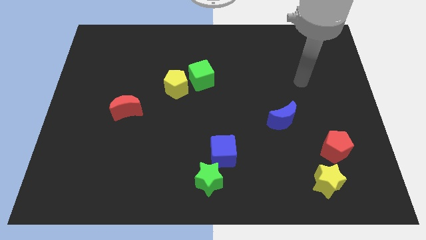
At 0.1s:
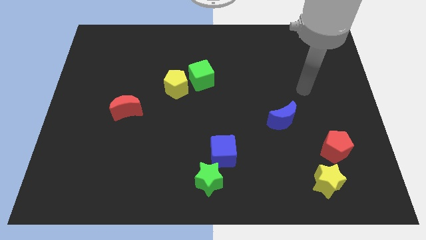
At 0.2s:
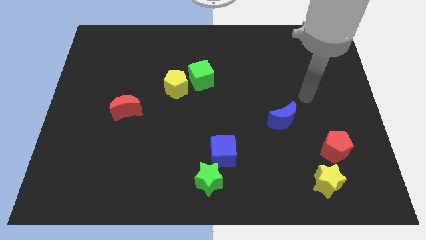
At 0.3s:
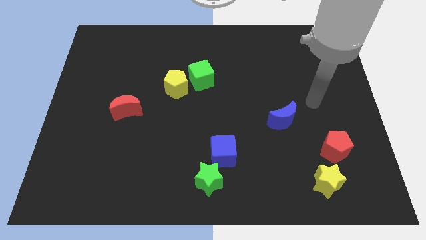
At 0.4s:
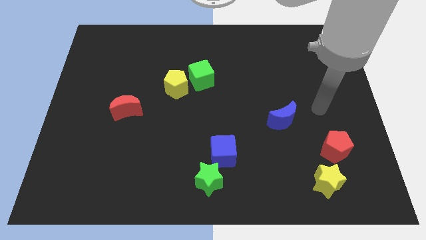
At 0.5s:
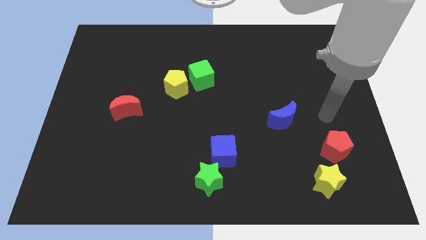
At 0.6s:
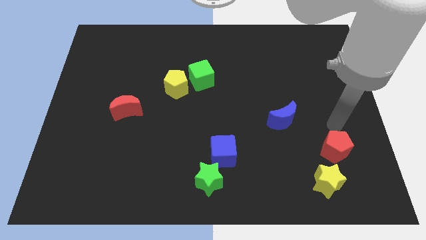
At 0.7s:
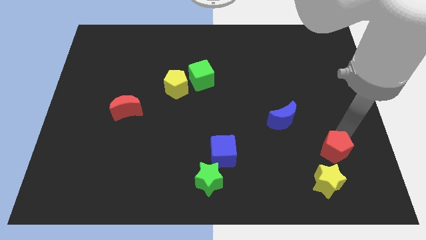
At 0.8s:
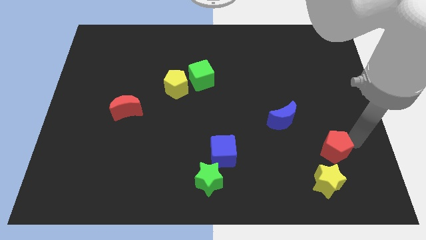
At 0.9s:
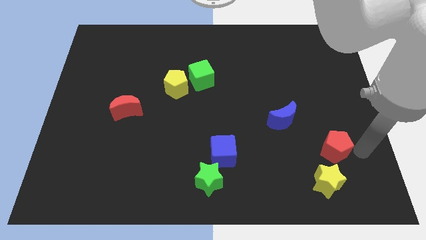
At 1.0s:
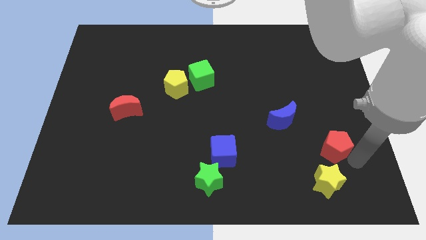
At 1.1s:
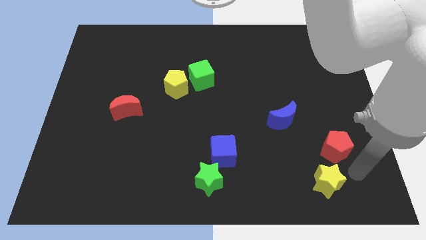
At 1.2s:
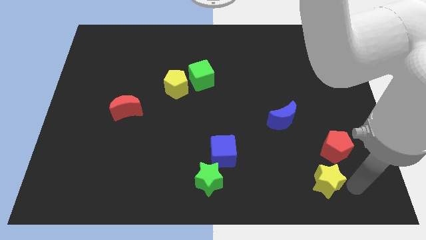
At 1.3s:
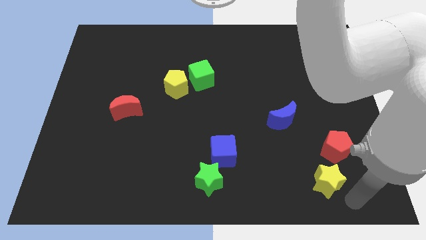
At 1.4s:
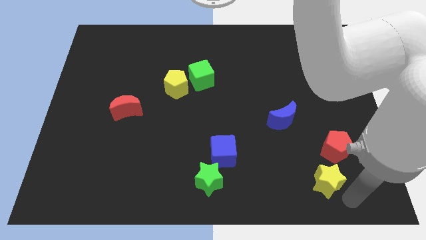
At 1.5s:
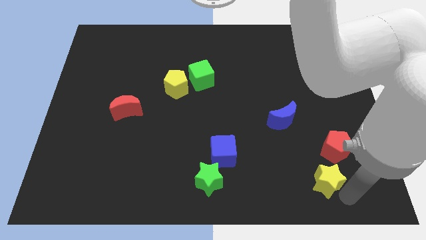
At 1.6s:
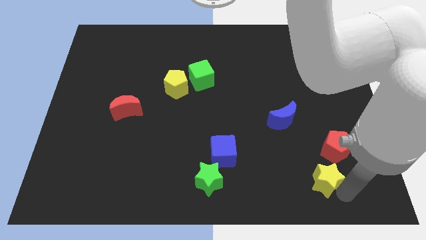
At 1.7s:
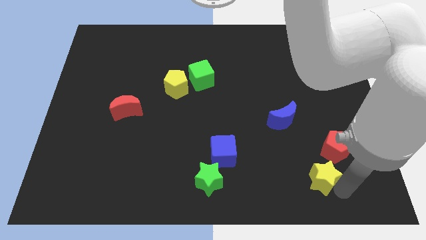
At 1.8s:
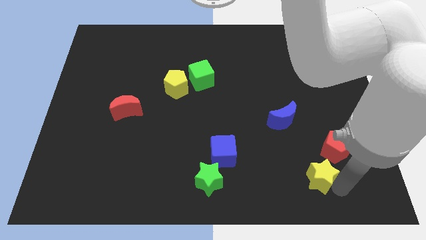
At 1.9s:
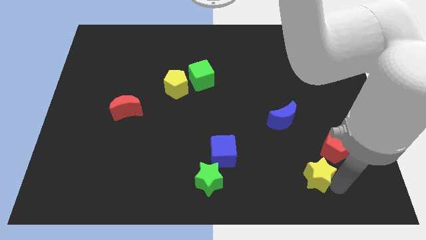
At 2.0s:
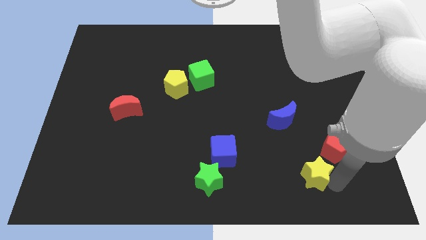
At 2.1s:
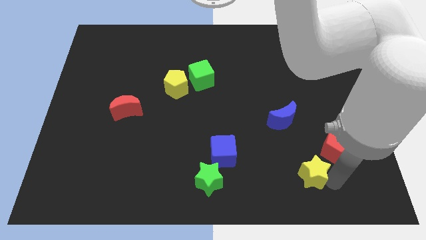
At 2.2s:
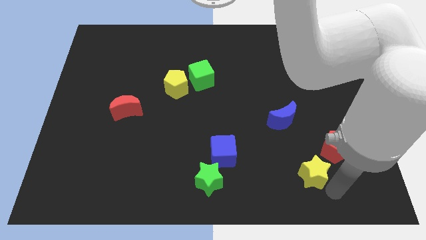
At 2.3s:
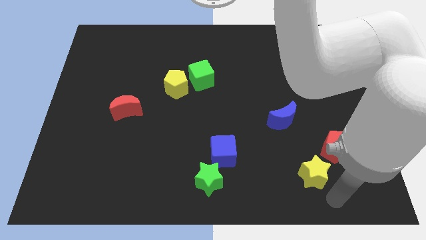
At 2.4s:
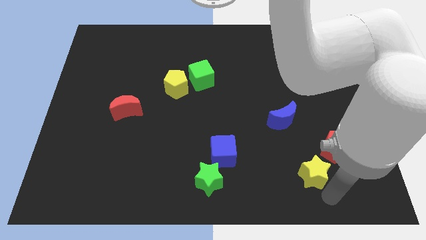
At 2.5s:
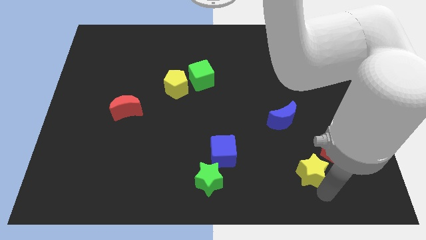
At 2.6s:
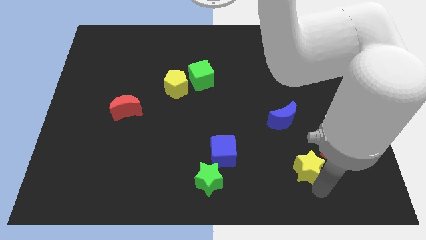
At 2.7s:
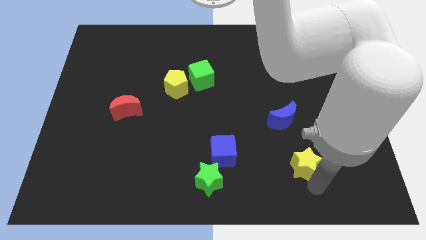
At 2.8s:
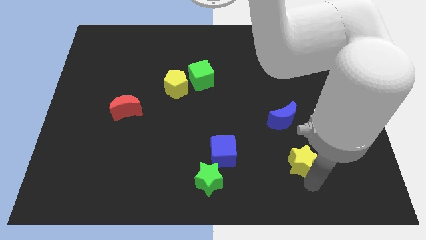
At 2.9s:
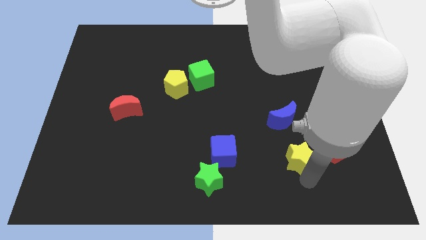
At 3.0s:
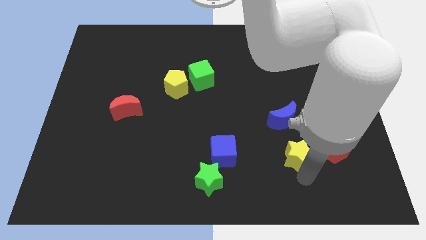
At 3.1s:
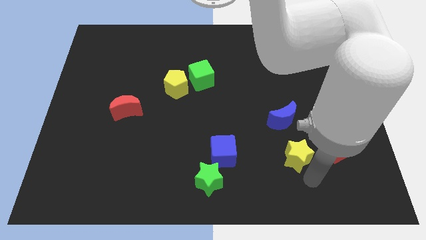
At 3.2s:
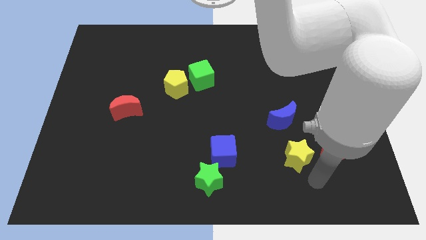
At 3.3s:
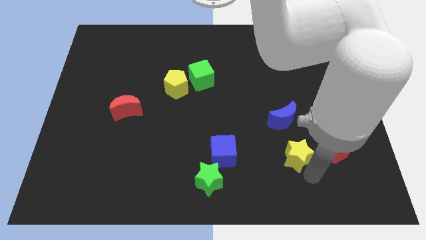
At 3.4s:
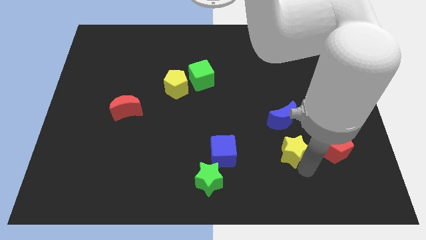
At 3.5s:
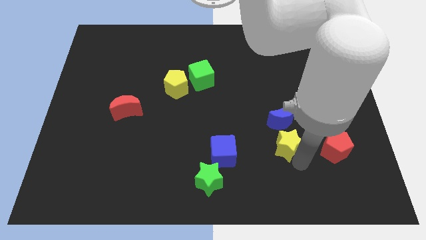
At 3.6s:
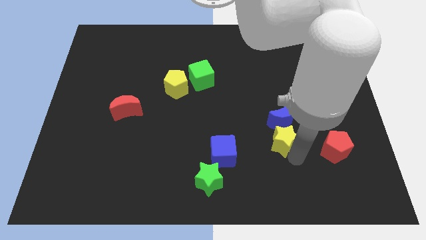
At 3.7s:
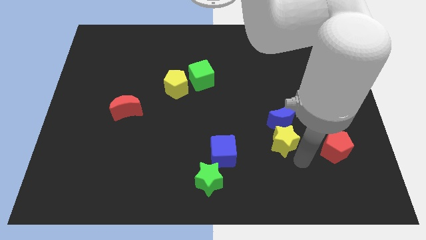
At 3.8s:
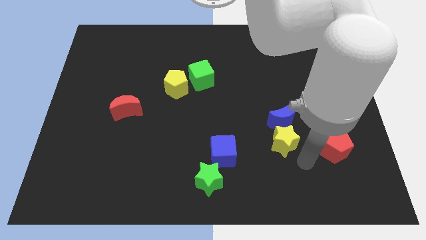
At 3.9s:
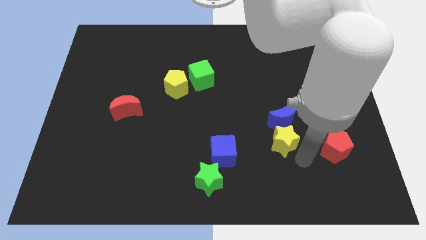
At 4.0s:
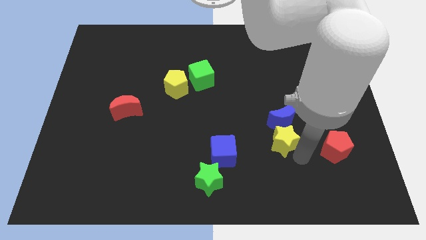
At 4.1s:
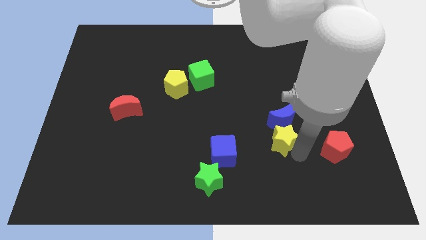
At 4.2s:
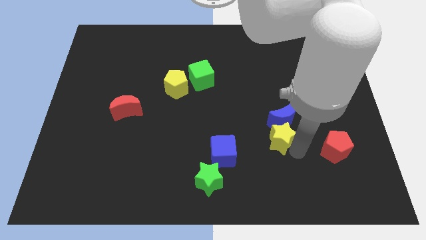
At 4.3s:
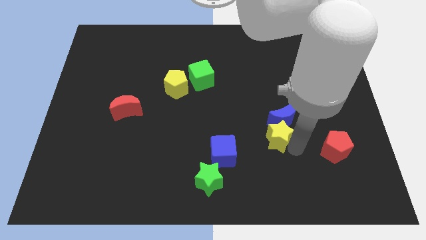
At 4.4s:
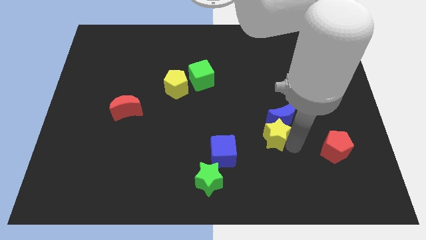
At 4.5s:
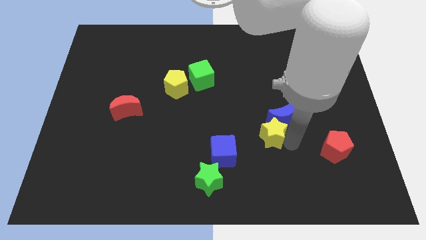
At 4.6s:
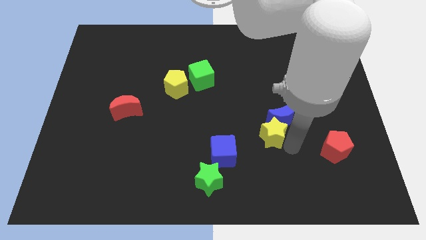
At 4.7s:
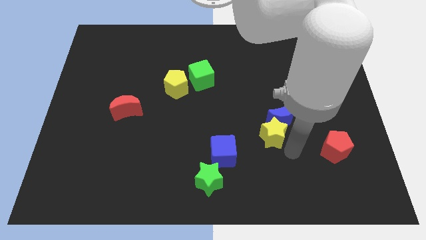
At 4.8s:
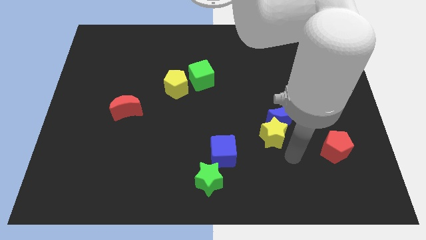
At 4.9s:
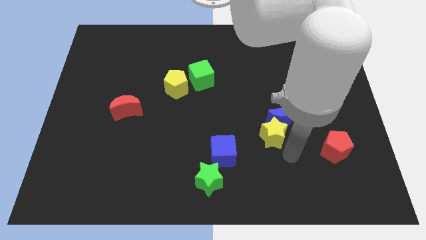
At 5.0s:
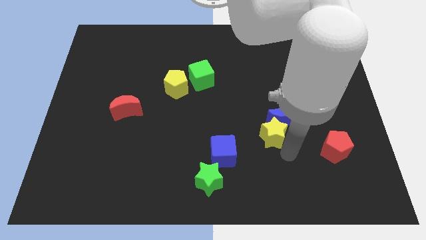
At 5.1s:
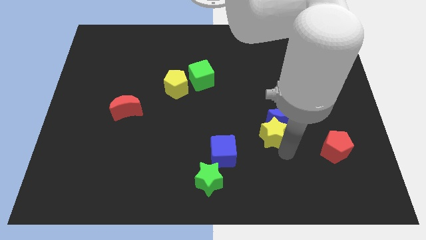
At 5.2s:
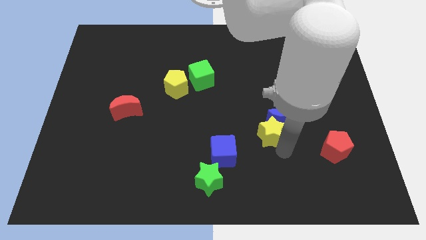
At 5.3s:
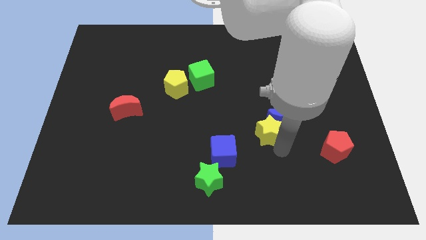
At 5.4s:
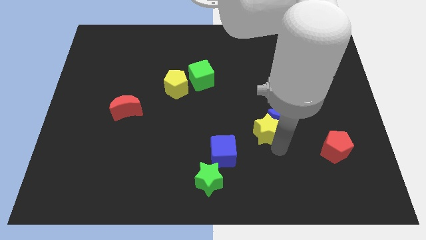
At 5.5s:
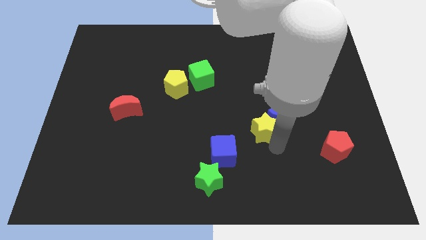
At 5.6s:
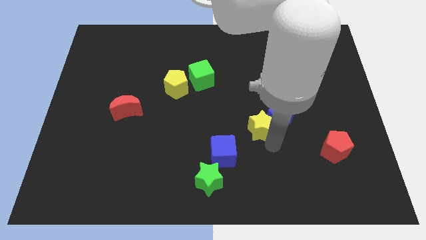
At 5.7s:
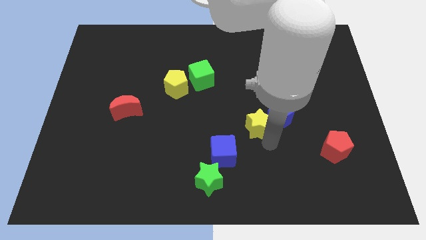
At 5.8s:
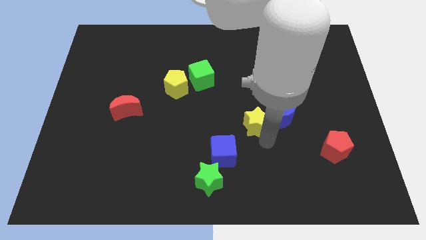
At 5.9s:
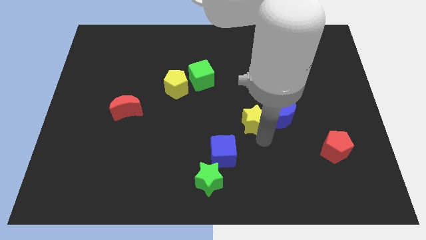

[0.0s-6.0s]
push the yellow star up and to the left

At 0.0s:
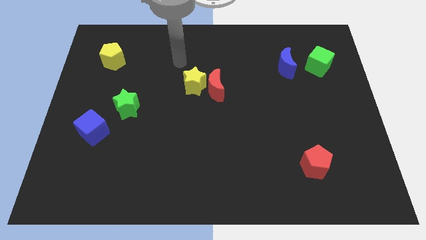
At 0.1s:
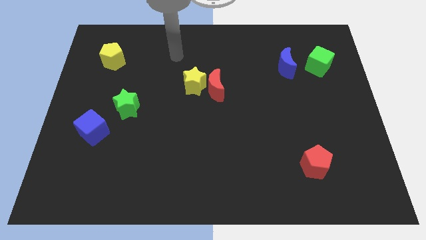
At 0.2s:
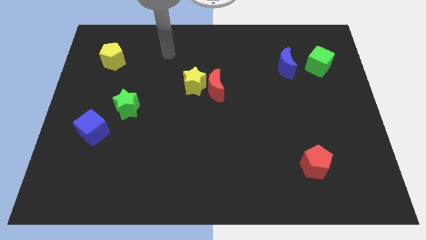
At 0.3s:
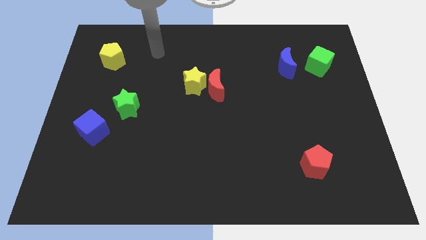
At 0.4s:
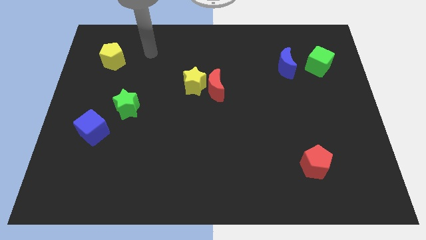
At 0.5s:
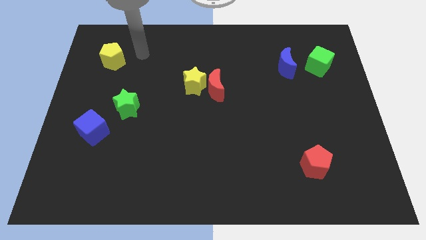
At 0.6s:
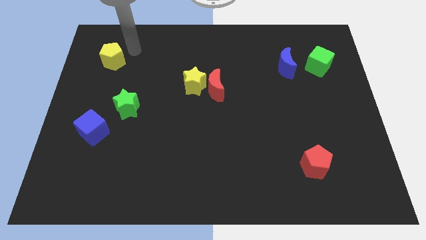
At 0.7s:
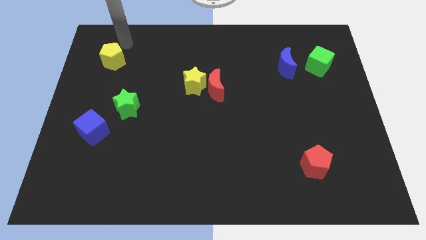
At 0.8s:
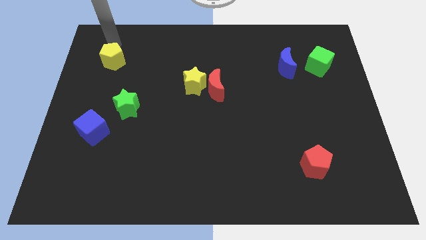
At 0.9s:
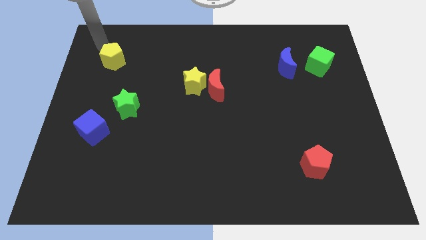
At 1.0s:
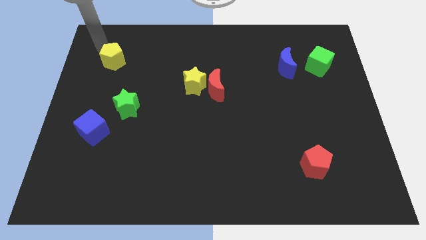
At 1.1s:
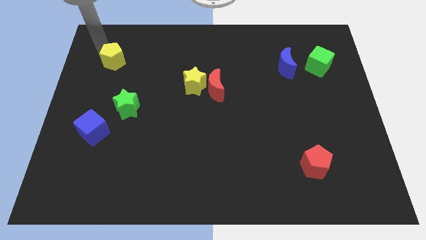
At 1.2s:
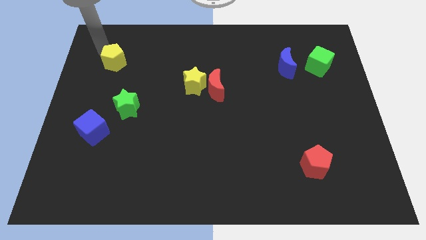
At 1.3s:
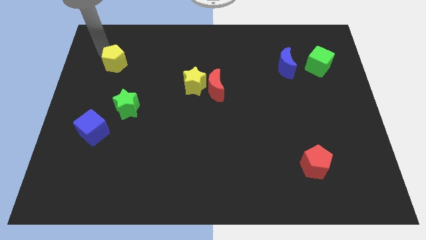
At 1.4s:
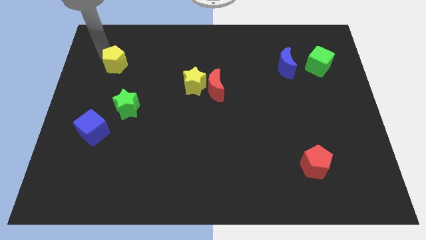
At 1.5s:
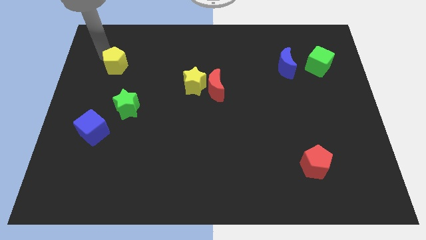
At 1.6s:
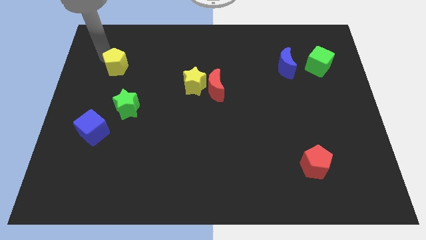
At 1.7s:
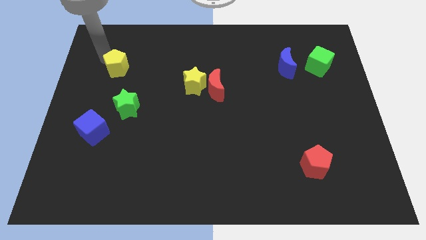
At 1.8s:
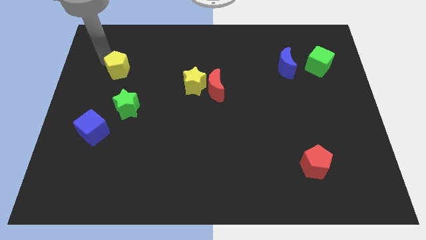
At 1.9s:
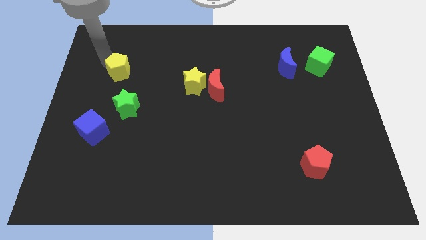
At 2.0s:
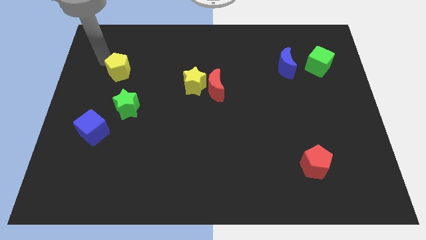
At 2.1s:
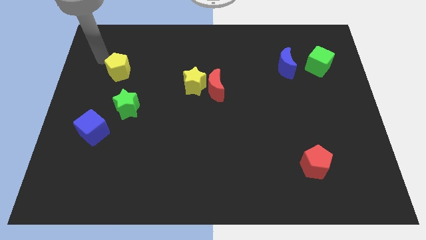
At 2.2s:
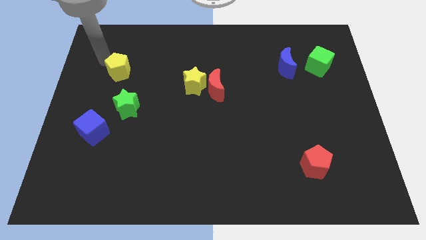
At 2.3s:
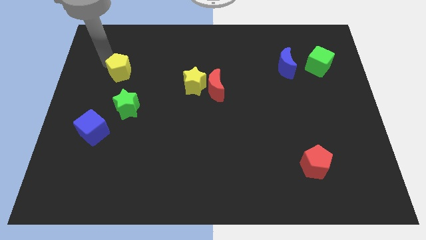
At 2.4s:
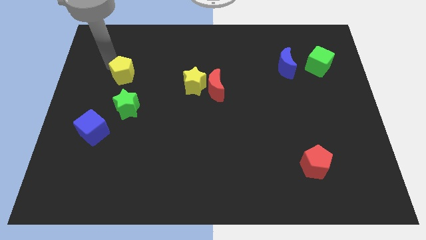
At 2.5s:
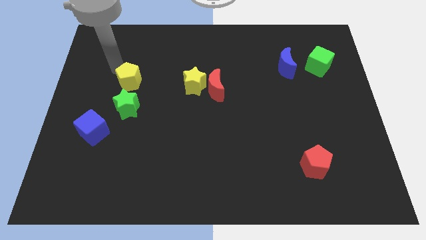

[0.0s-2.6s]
slightly move the yellow pentagon diagonally downwards and to the right
